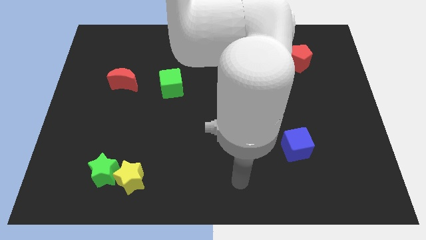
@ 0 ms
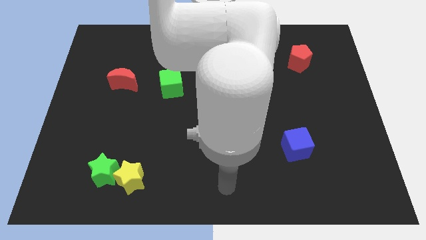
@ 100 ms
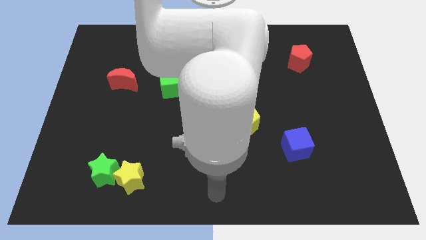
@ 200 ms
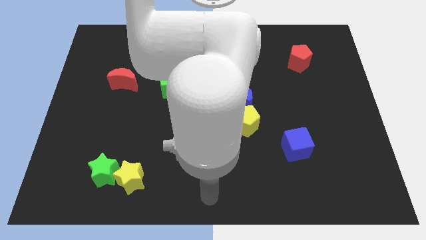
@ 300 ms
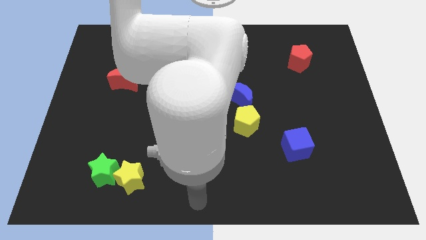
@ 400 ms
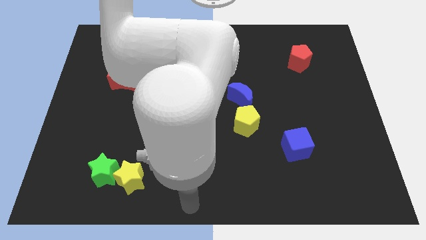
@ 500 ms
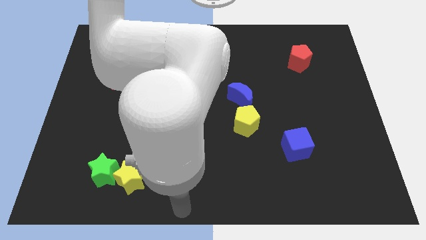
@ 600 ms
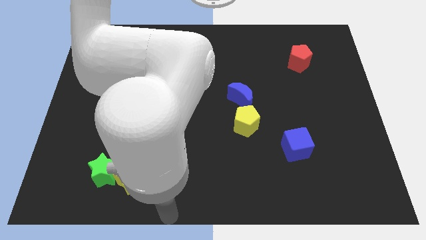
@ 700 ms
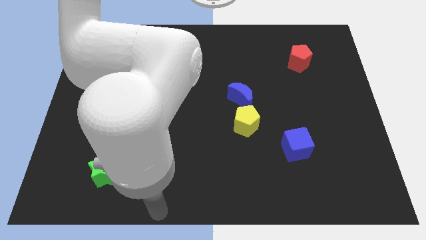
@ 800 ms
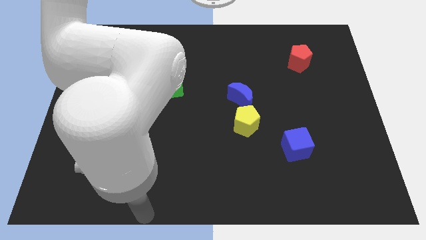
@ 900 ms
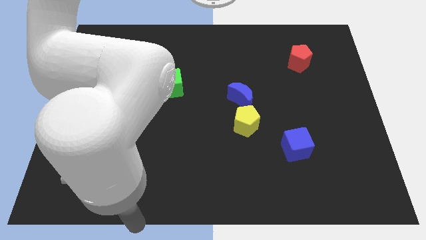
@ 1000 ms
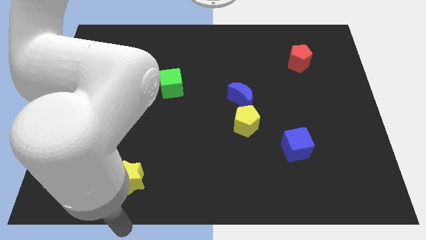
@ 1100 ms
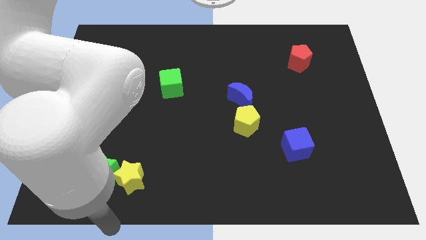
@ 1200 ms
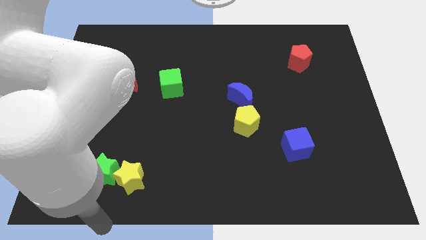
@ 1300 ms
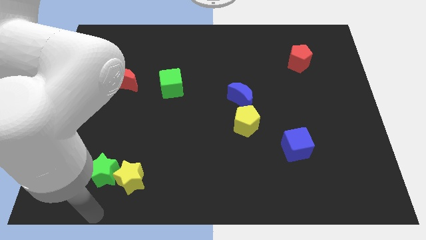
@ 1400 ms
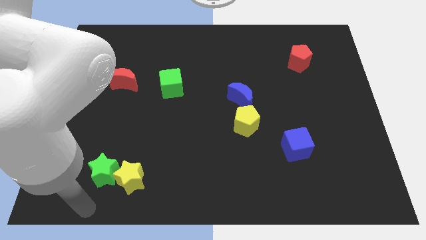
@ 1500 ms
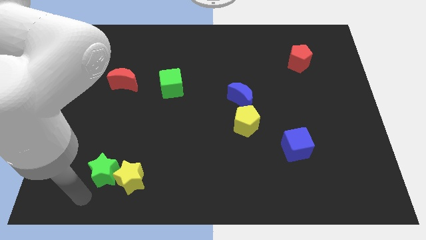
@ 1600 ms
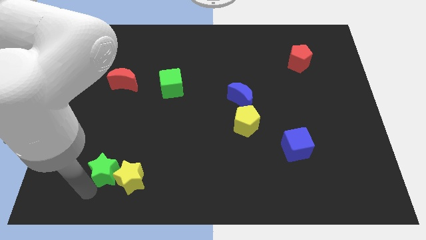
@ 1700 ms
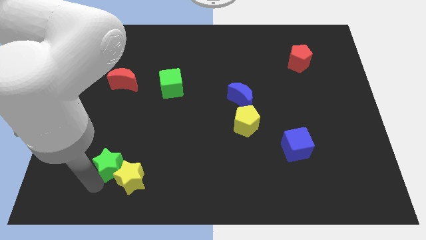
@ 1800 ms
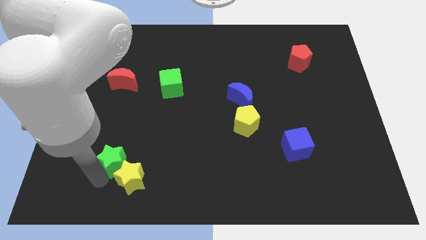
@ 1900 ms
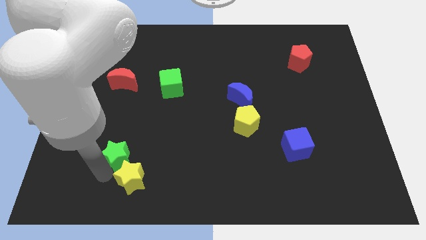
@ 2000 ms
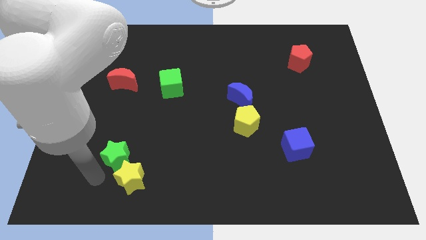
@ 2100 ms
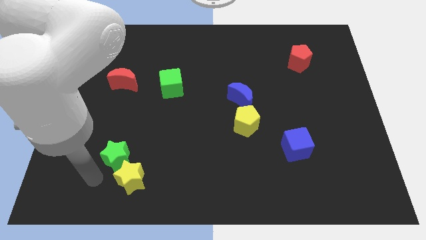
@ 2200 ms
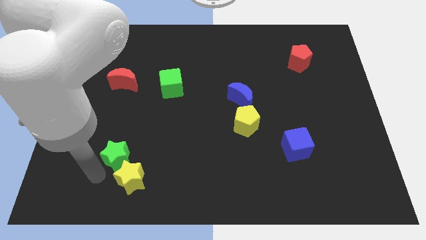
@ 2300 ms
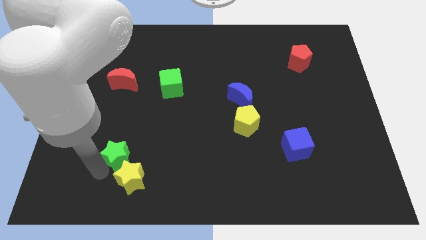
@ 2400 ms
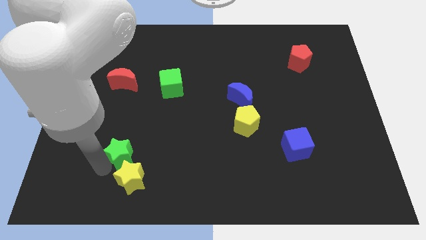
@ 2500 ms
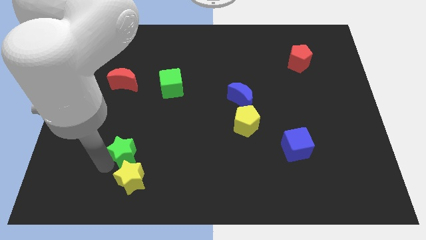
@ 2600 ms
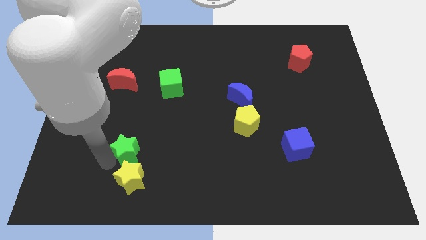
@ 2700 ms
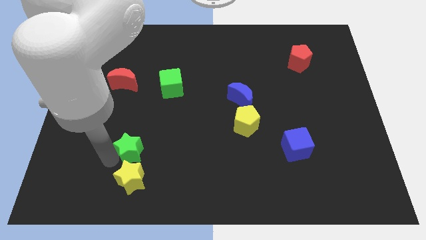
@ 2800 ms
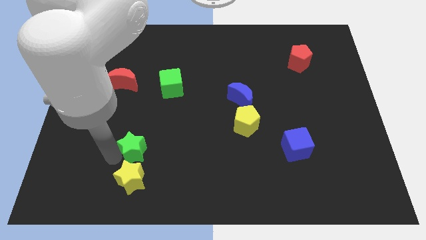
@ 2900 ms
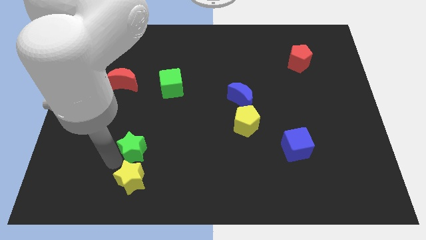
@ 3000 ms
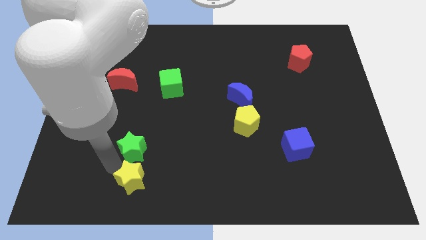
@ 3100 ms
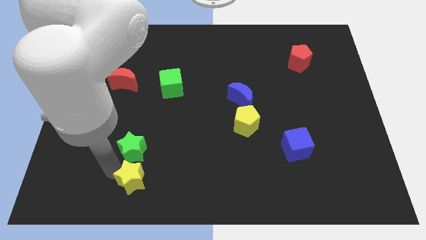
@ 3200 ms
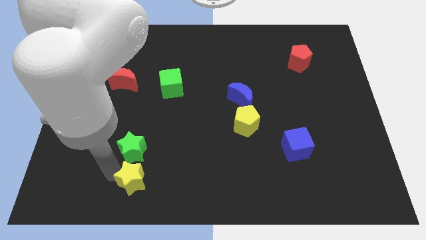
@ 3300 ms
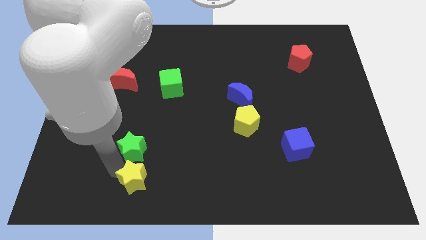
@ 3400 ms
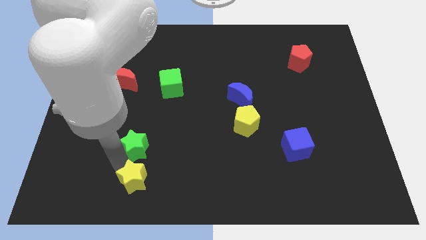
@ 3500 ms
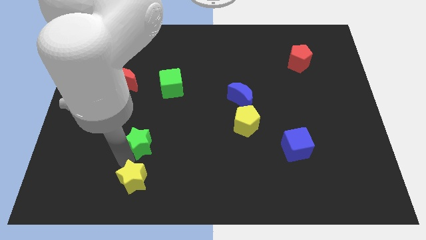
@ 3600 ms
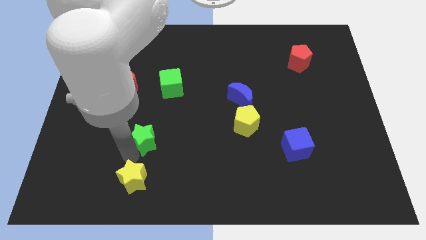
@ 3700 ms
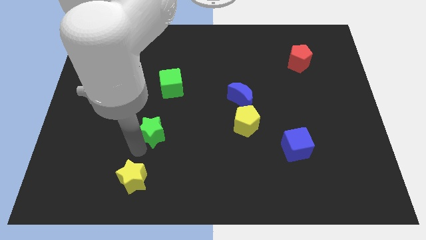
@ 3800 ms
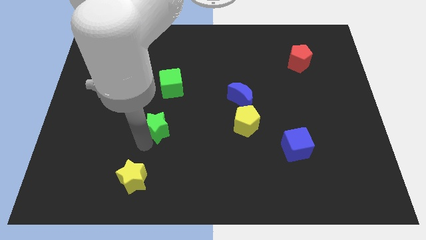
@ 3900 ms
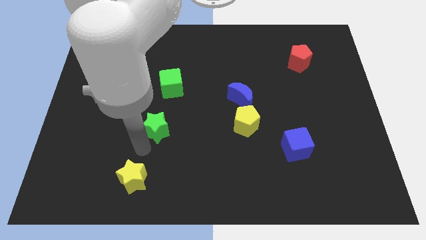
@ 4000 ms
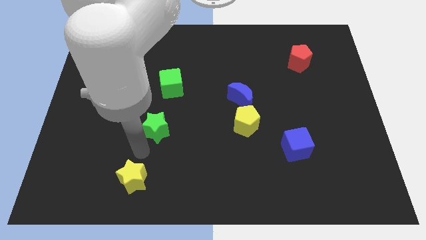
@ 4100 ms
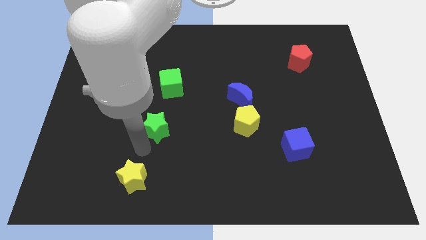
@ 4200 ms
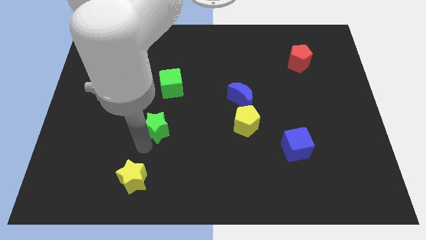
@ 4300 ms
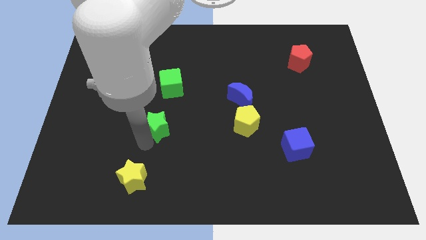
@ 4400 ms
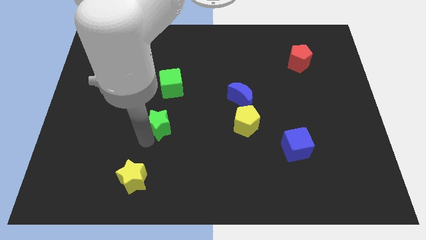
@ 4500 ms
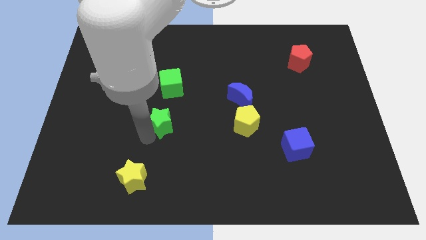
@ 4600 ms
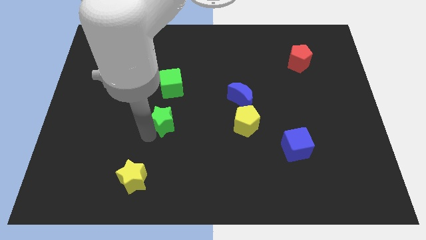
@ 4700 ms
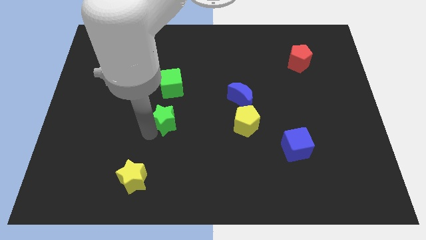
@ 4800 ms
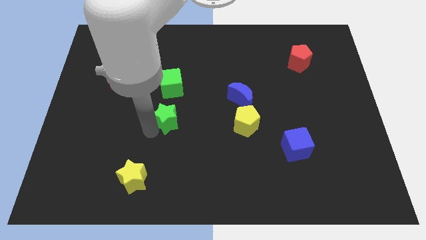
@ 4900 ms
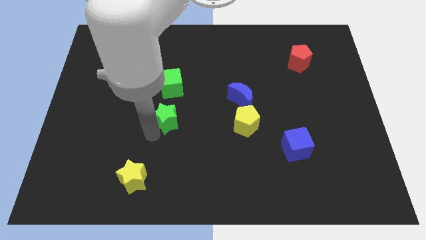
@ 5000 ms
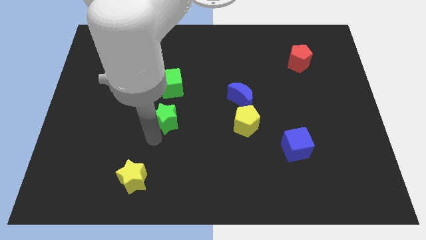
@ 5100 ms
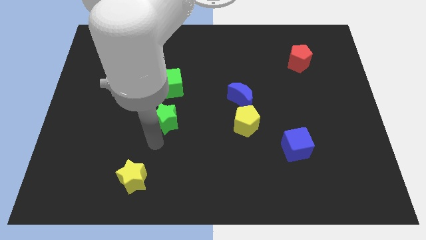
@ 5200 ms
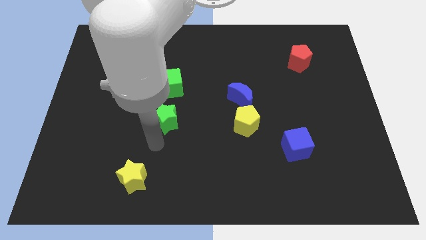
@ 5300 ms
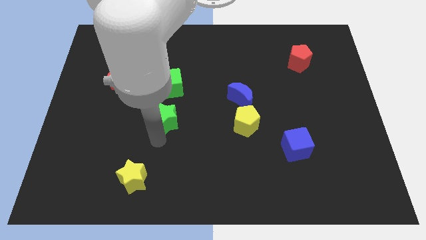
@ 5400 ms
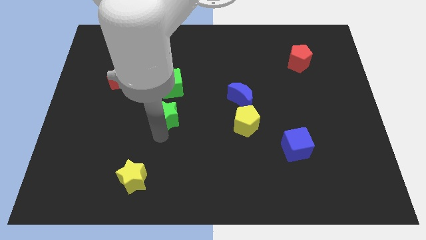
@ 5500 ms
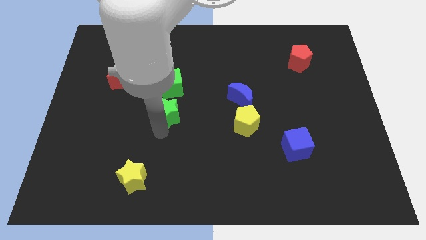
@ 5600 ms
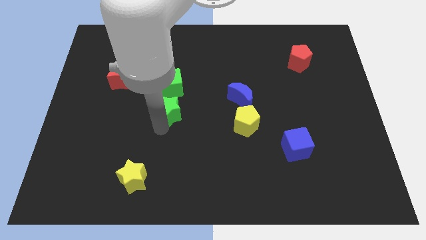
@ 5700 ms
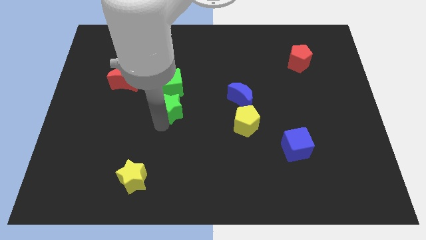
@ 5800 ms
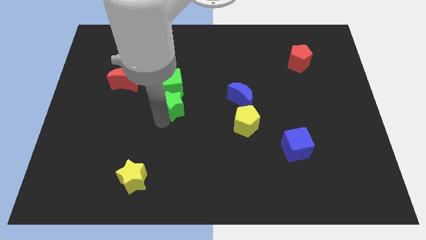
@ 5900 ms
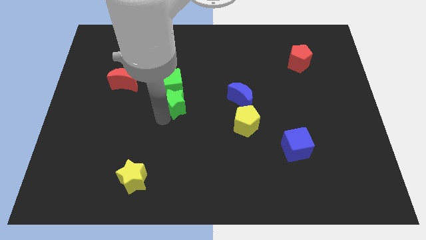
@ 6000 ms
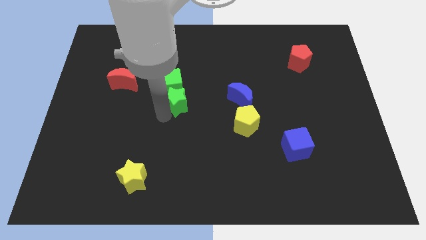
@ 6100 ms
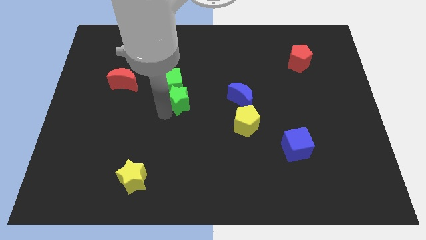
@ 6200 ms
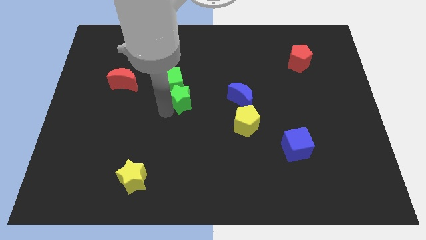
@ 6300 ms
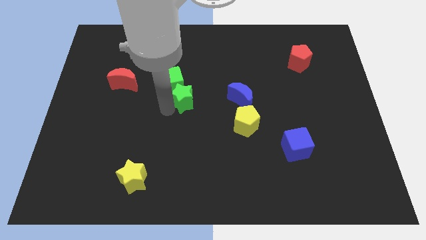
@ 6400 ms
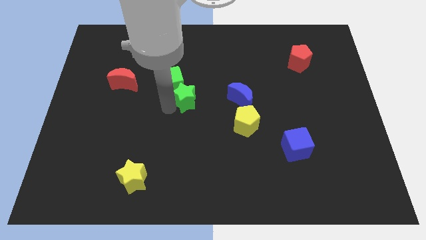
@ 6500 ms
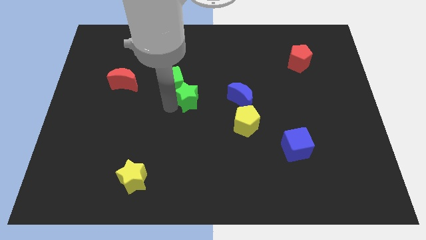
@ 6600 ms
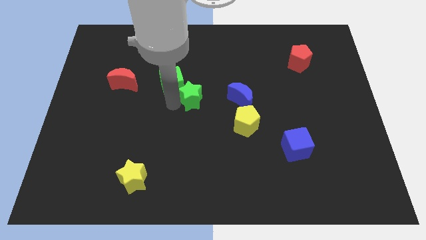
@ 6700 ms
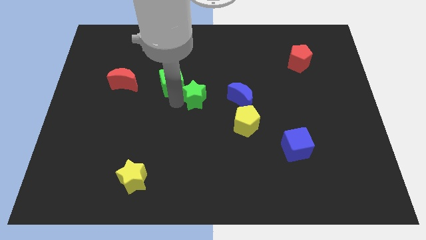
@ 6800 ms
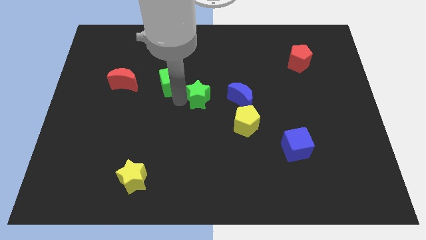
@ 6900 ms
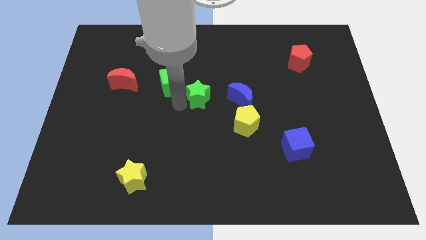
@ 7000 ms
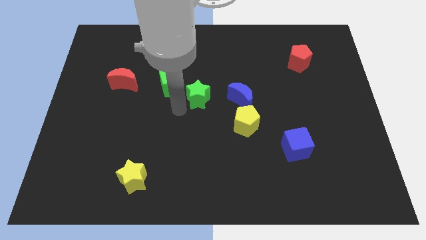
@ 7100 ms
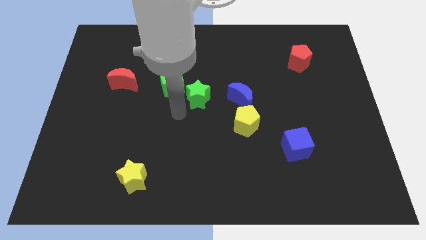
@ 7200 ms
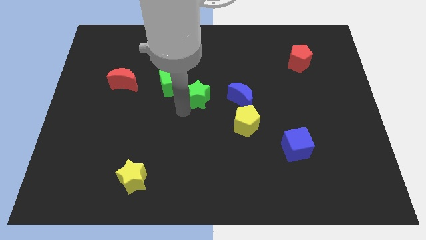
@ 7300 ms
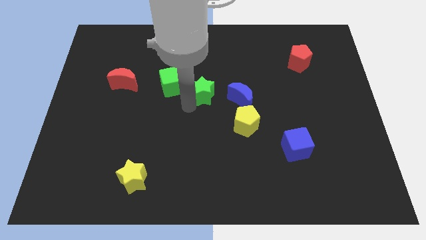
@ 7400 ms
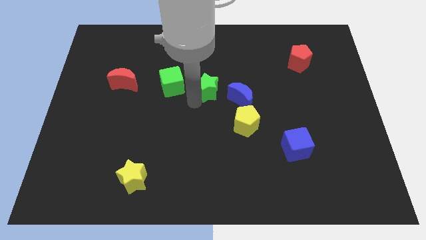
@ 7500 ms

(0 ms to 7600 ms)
slide the green star to the top left of the blue moon
